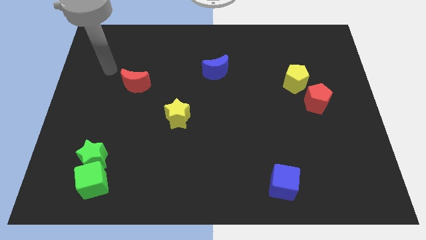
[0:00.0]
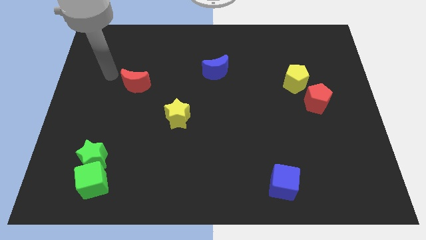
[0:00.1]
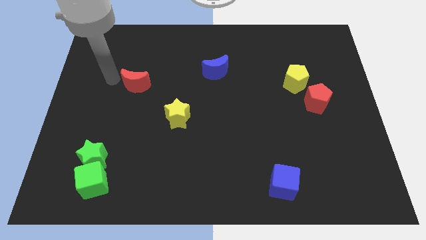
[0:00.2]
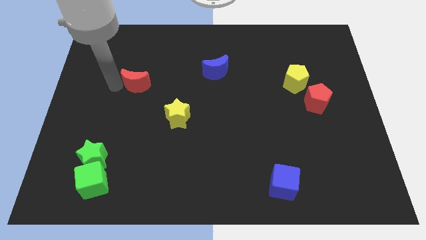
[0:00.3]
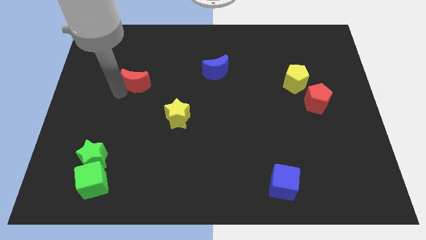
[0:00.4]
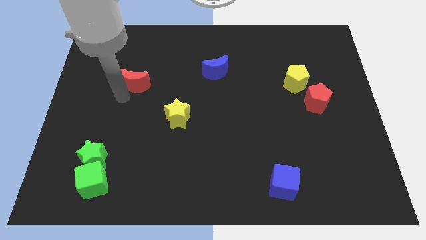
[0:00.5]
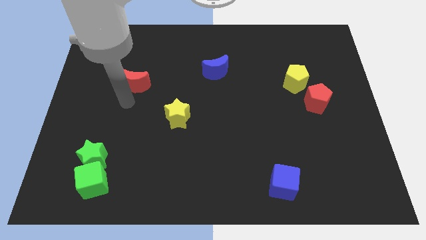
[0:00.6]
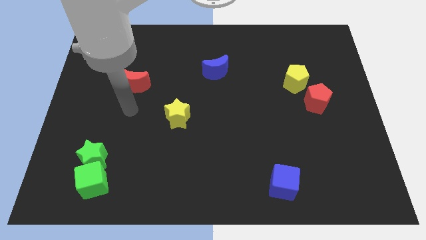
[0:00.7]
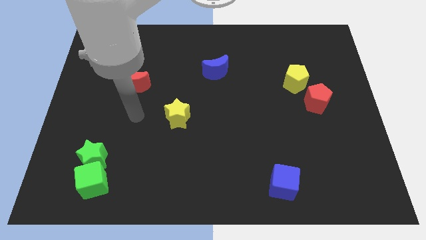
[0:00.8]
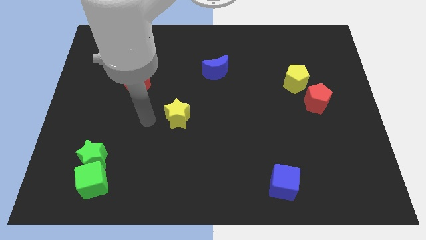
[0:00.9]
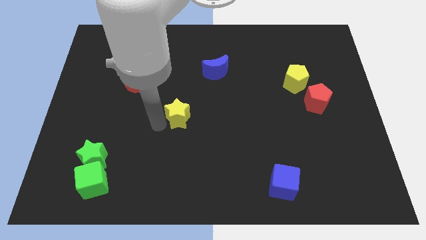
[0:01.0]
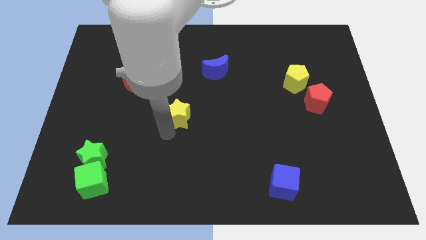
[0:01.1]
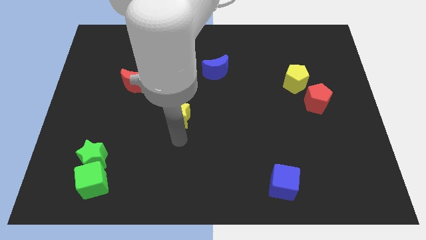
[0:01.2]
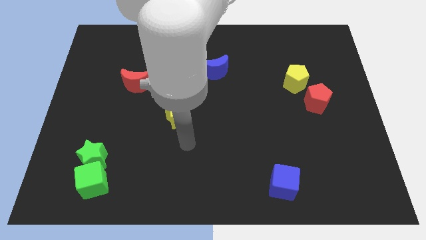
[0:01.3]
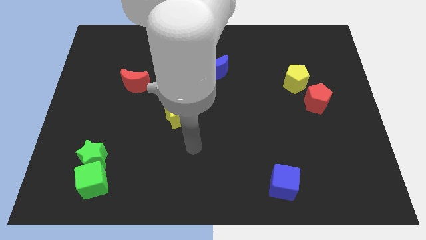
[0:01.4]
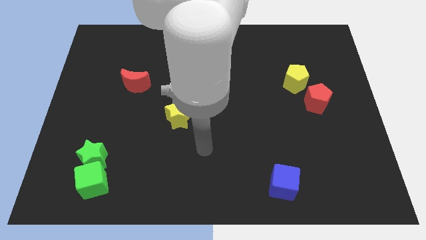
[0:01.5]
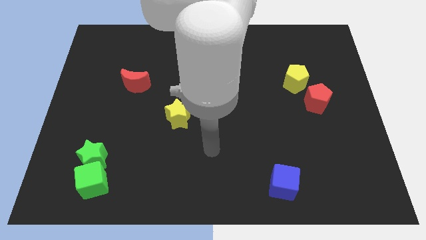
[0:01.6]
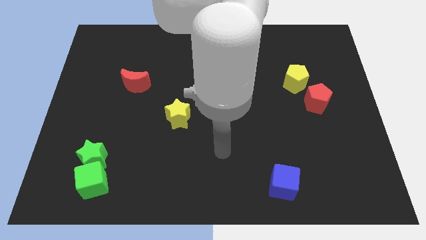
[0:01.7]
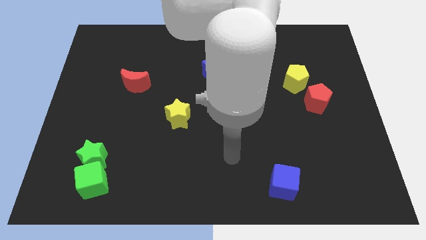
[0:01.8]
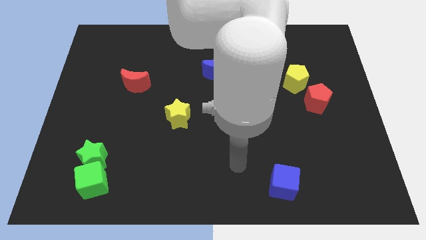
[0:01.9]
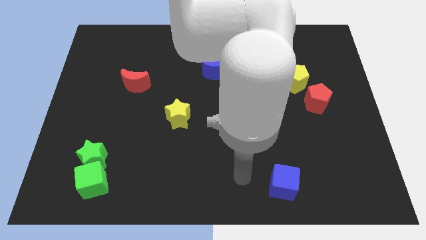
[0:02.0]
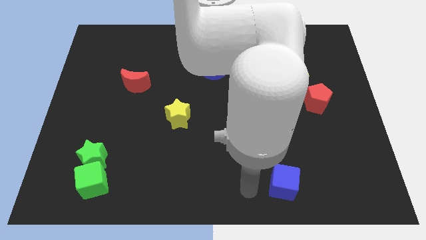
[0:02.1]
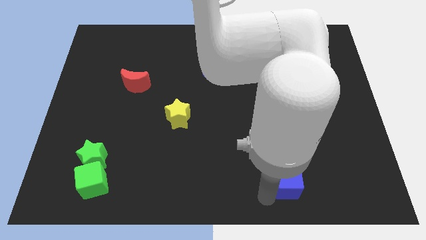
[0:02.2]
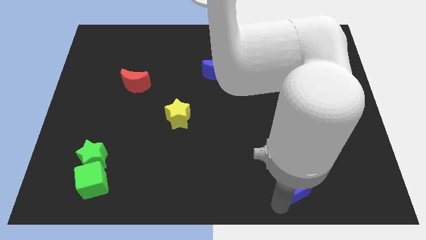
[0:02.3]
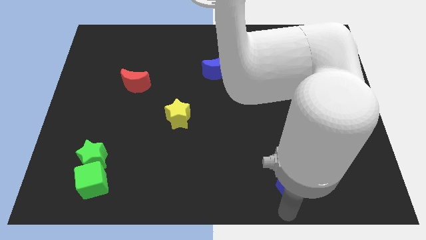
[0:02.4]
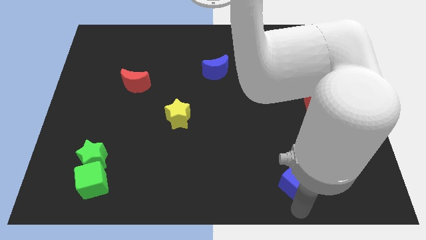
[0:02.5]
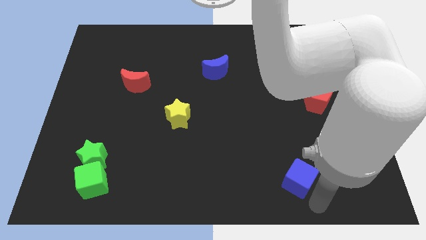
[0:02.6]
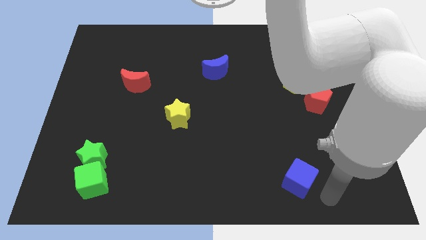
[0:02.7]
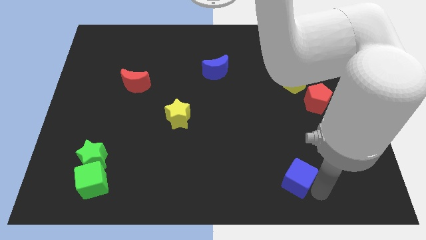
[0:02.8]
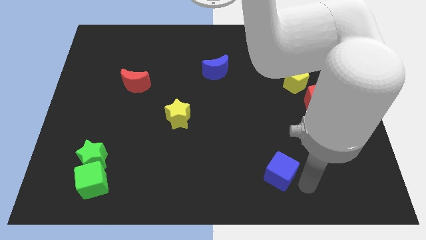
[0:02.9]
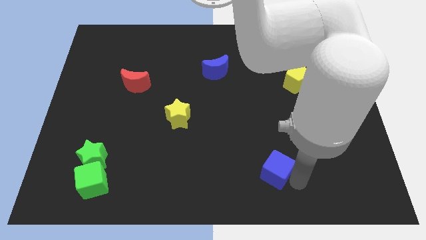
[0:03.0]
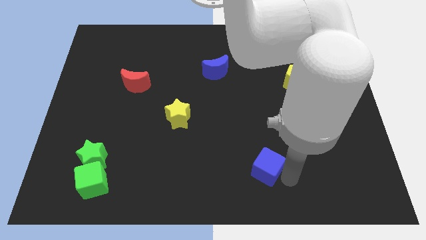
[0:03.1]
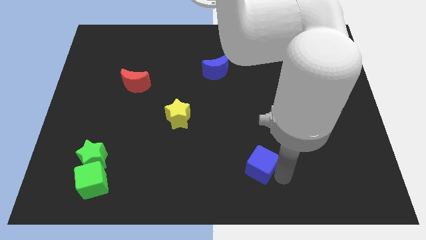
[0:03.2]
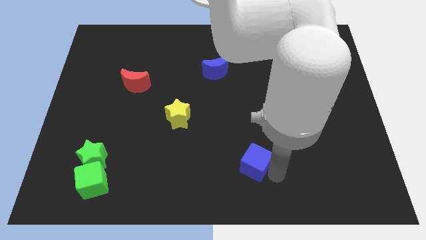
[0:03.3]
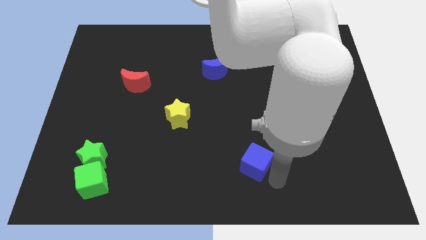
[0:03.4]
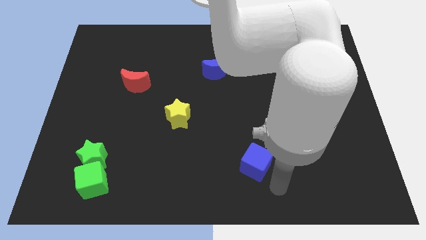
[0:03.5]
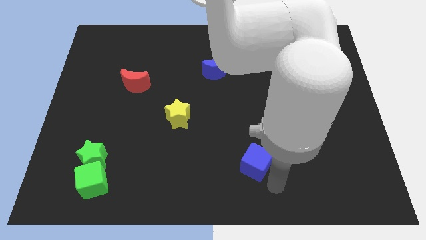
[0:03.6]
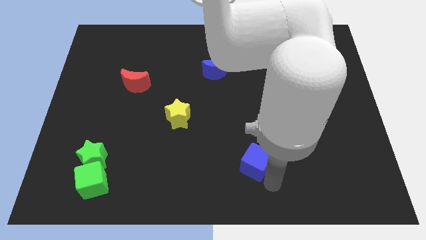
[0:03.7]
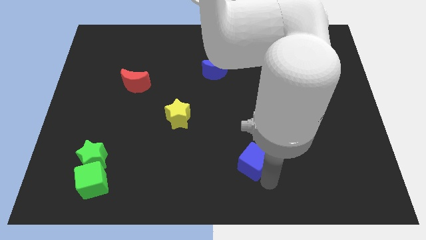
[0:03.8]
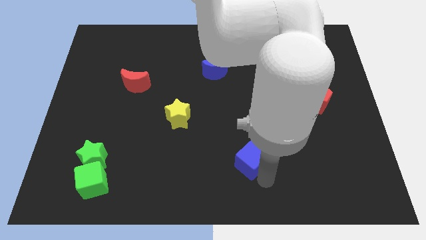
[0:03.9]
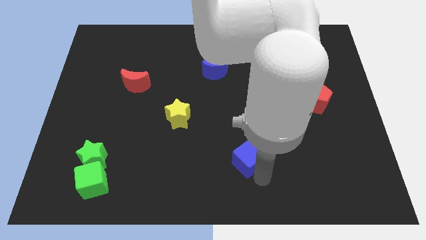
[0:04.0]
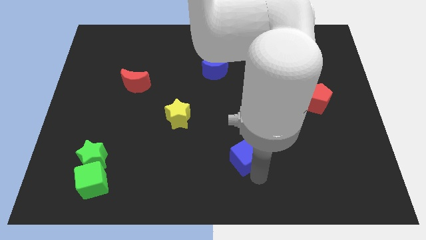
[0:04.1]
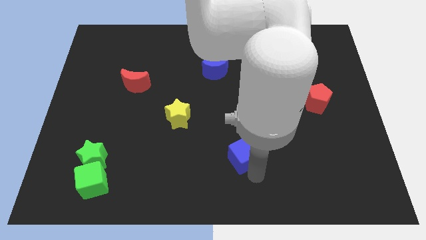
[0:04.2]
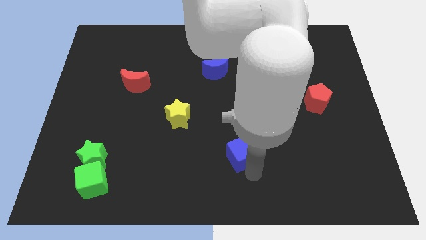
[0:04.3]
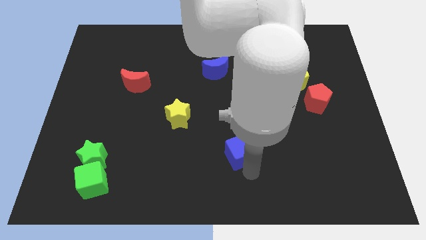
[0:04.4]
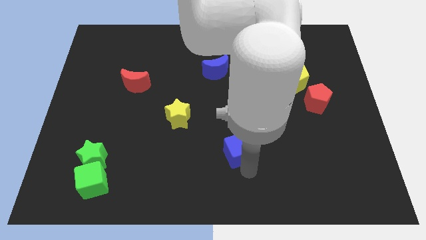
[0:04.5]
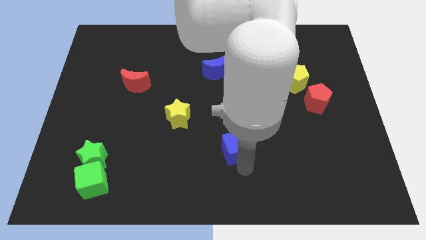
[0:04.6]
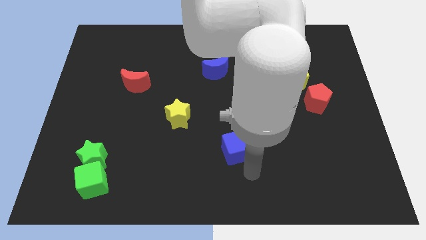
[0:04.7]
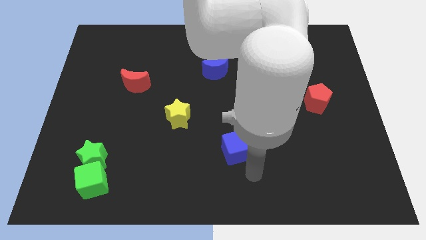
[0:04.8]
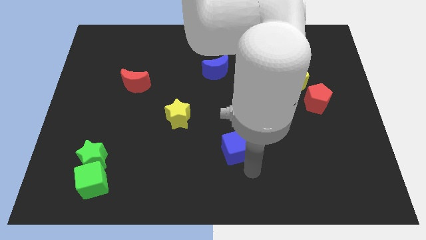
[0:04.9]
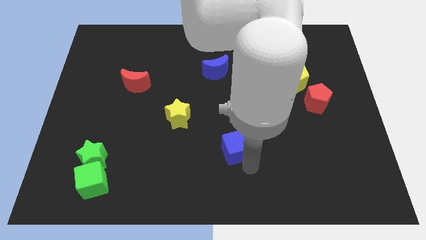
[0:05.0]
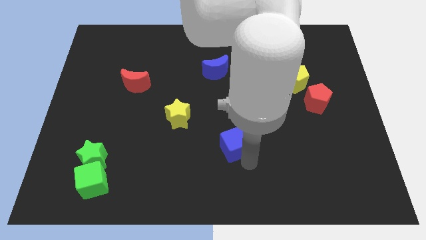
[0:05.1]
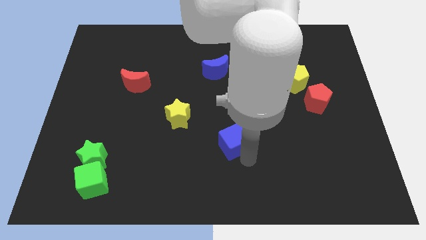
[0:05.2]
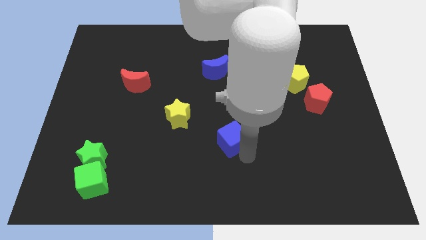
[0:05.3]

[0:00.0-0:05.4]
put the blue cube to the middle

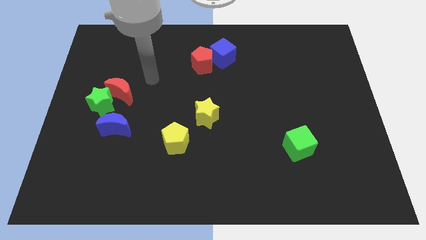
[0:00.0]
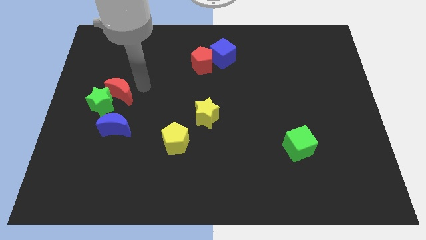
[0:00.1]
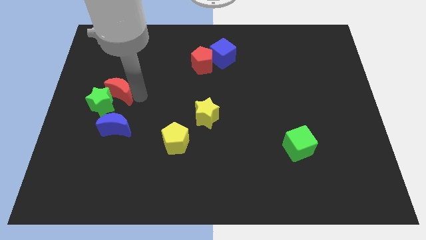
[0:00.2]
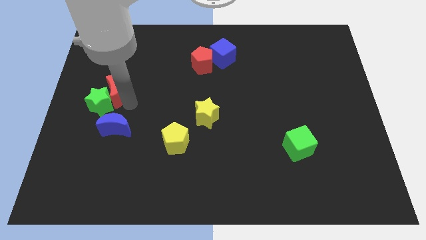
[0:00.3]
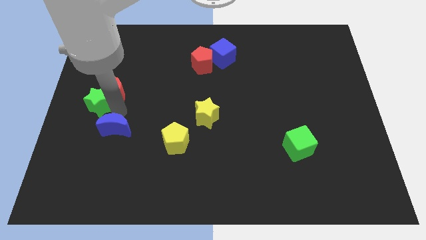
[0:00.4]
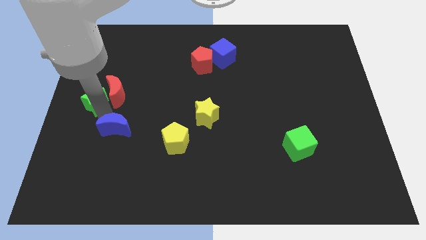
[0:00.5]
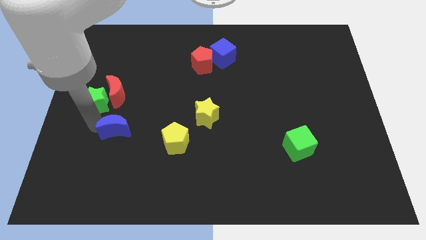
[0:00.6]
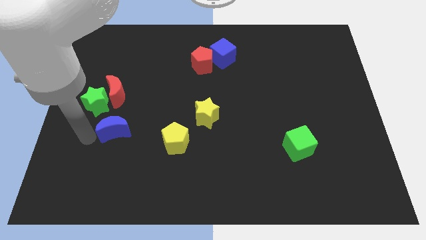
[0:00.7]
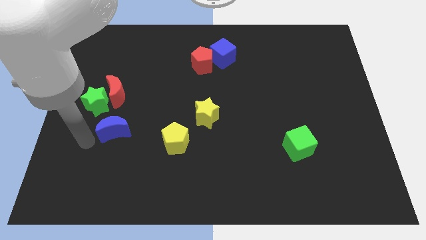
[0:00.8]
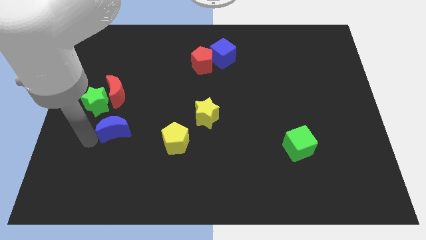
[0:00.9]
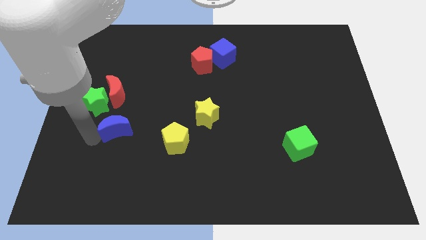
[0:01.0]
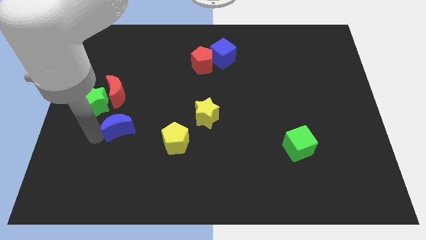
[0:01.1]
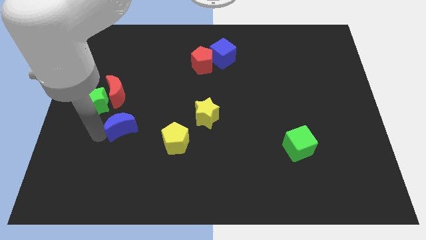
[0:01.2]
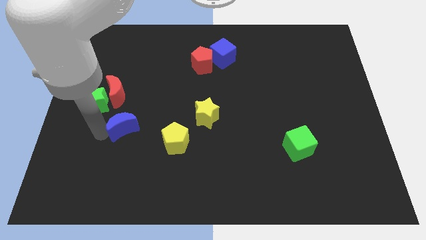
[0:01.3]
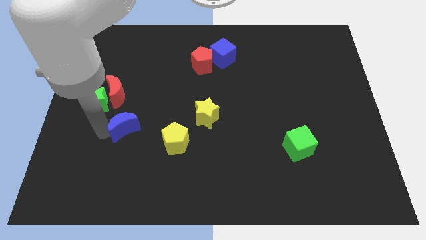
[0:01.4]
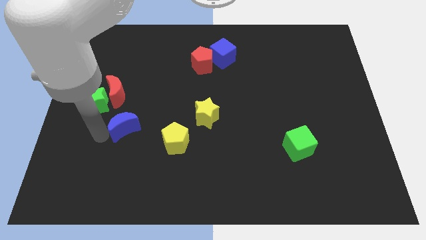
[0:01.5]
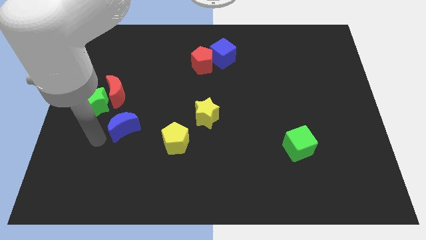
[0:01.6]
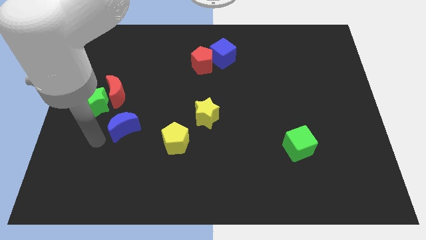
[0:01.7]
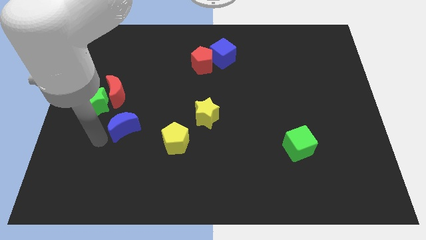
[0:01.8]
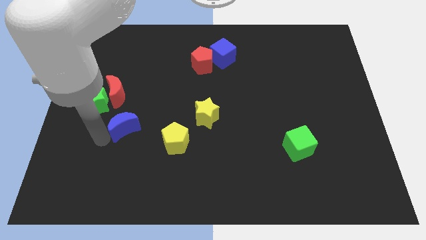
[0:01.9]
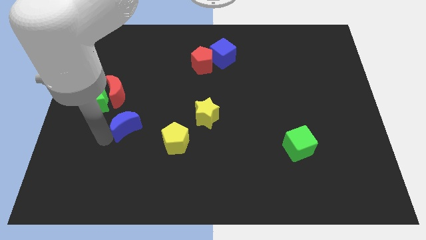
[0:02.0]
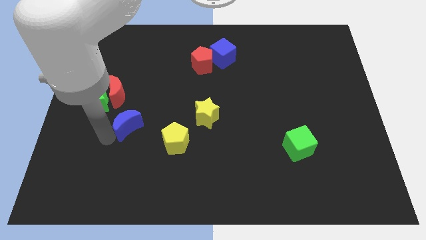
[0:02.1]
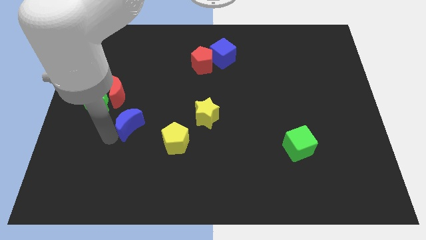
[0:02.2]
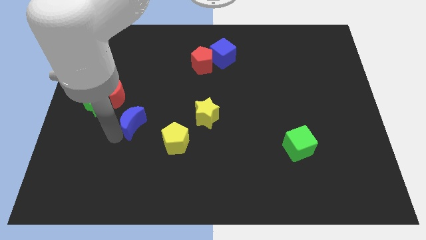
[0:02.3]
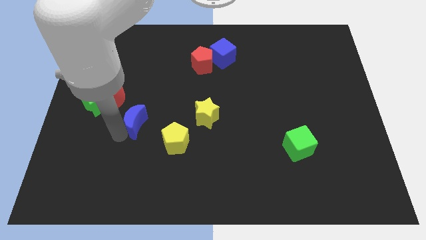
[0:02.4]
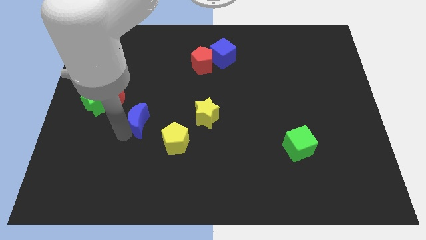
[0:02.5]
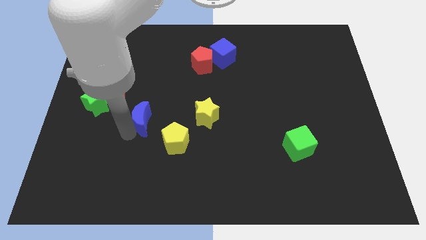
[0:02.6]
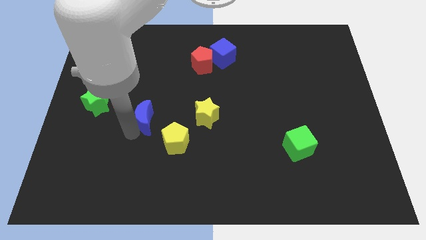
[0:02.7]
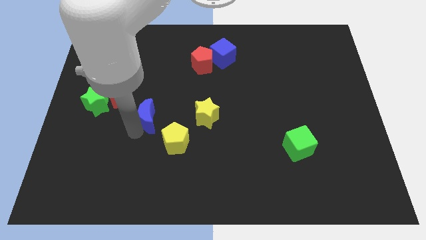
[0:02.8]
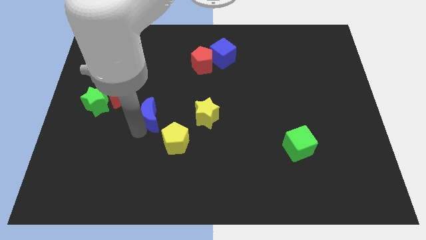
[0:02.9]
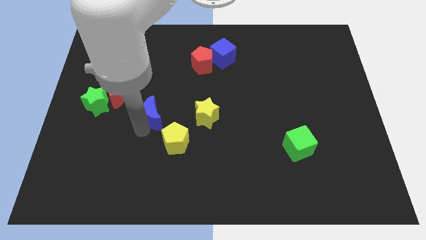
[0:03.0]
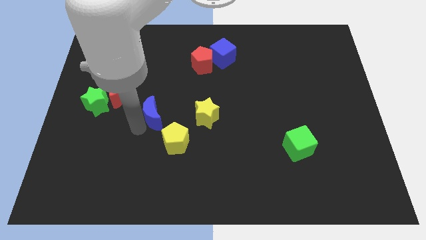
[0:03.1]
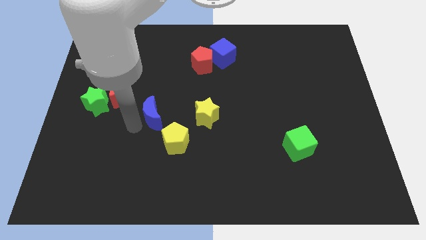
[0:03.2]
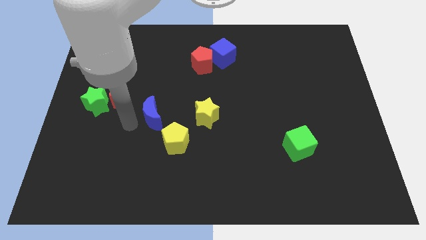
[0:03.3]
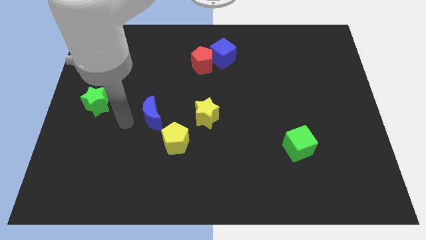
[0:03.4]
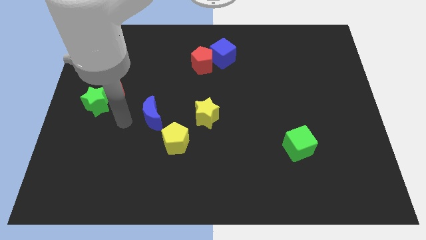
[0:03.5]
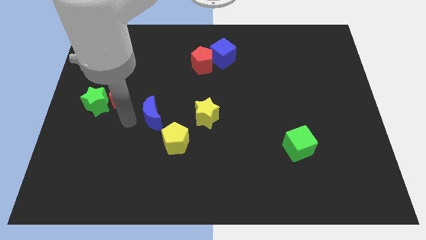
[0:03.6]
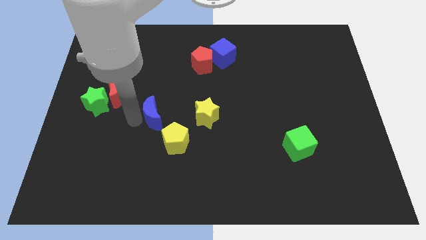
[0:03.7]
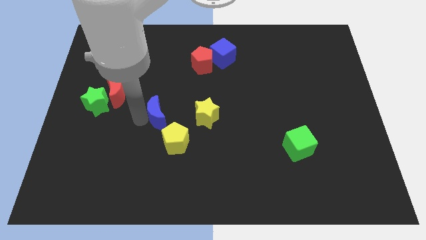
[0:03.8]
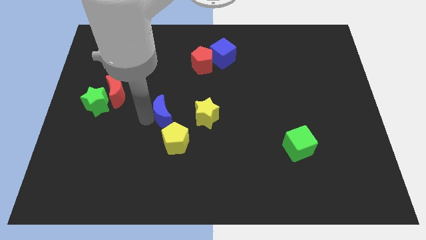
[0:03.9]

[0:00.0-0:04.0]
put the blue moon to the middle of the board
